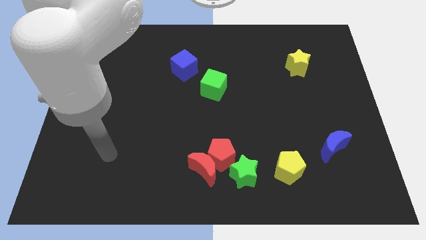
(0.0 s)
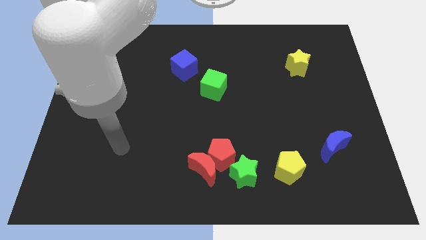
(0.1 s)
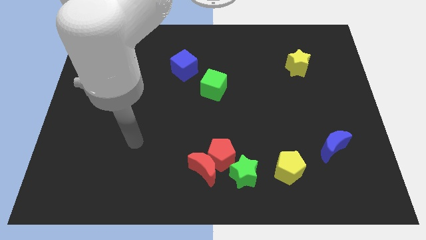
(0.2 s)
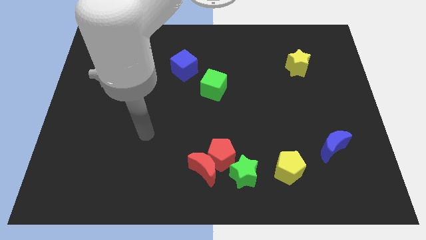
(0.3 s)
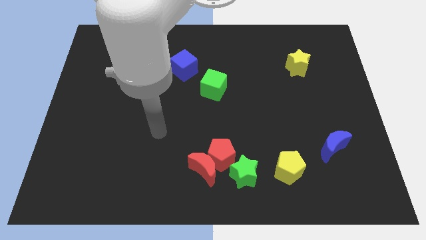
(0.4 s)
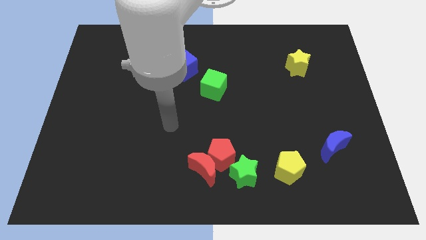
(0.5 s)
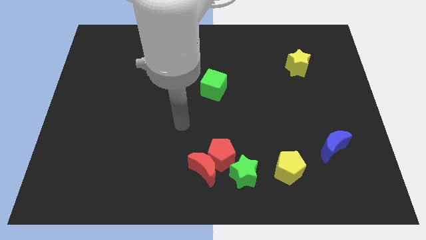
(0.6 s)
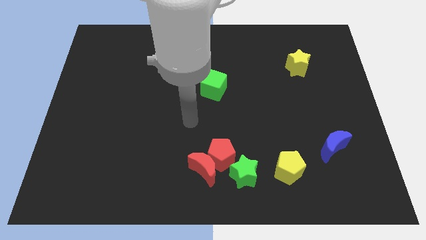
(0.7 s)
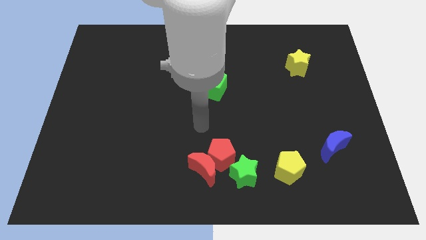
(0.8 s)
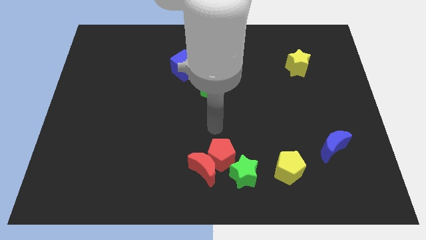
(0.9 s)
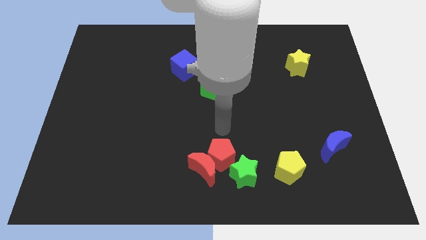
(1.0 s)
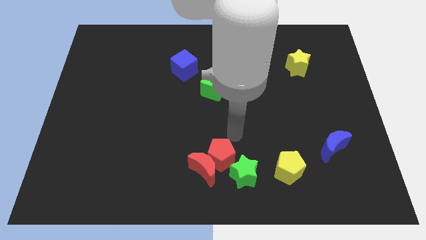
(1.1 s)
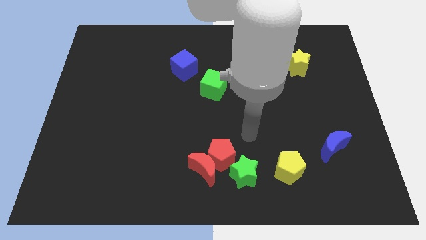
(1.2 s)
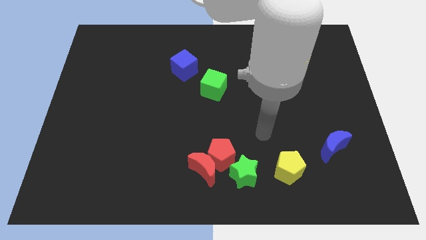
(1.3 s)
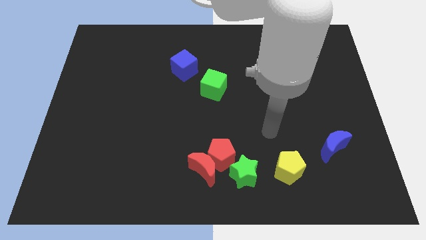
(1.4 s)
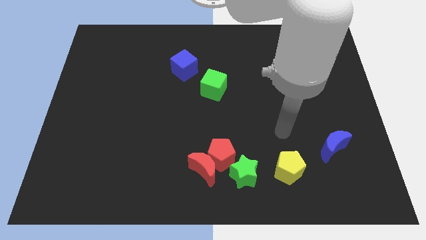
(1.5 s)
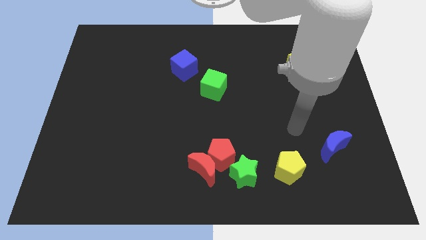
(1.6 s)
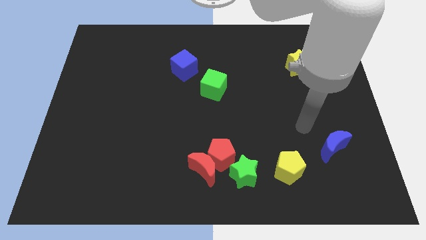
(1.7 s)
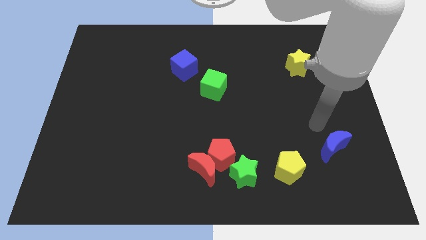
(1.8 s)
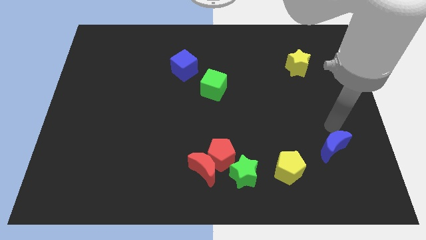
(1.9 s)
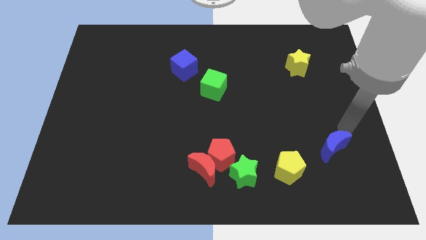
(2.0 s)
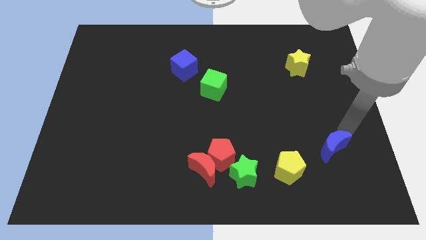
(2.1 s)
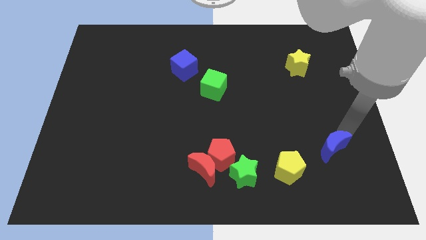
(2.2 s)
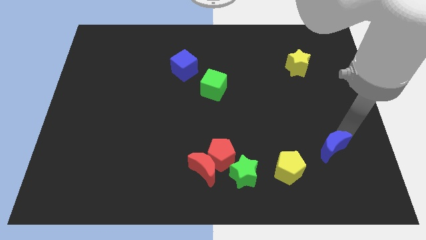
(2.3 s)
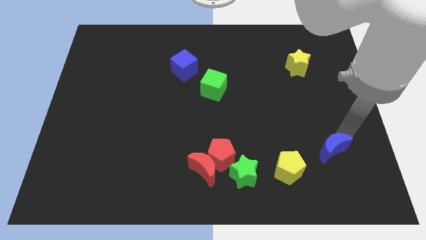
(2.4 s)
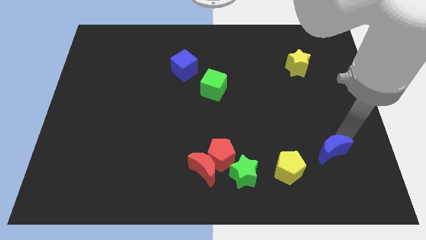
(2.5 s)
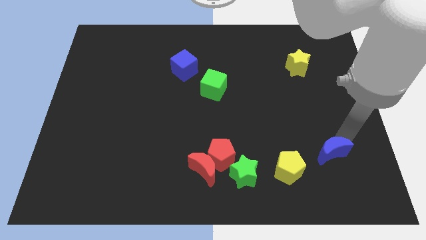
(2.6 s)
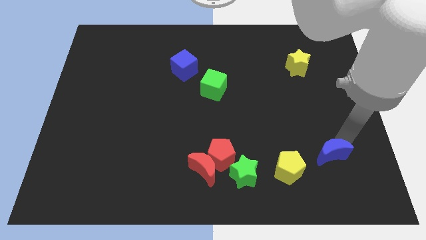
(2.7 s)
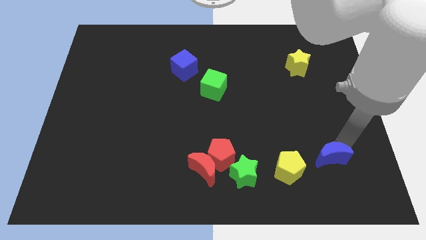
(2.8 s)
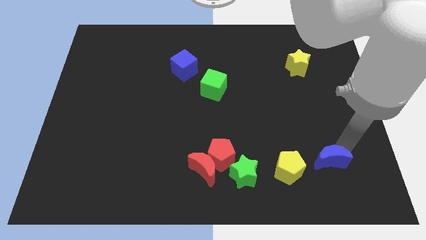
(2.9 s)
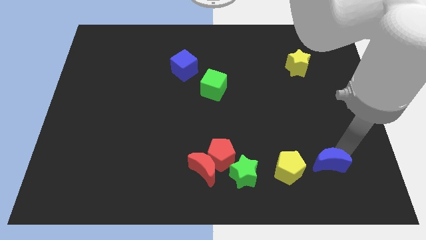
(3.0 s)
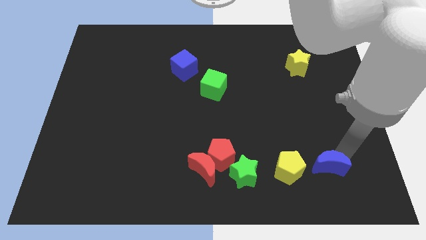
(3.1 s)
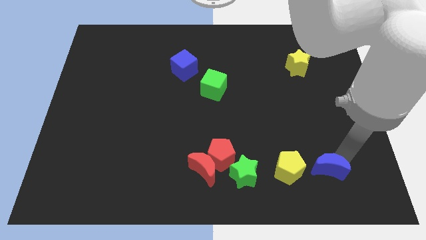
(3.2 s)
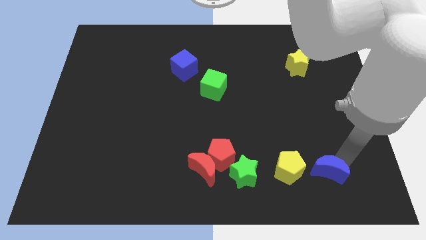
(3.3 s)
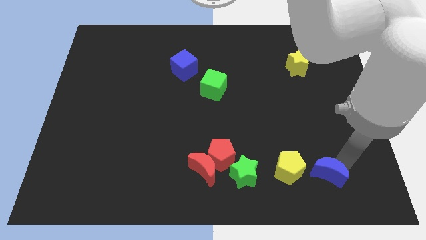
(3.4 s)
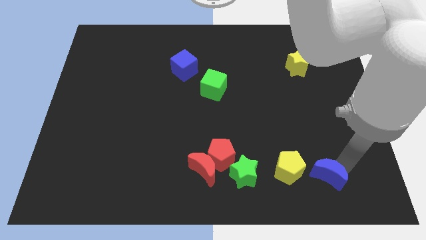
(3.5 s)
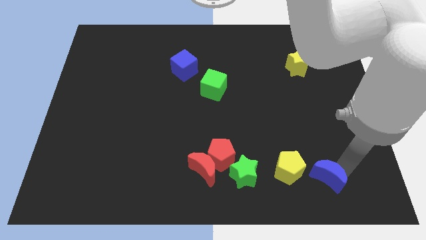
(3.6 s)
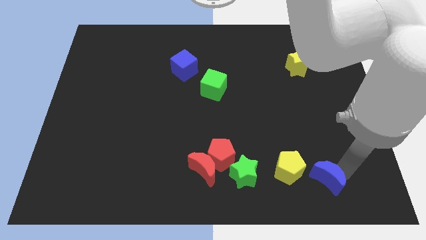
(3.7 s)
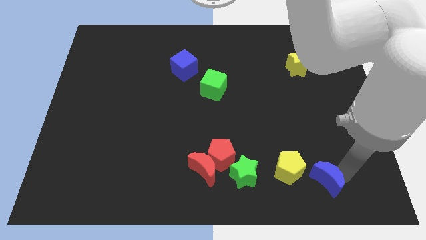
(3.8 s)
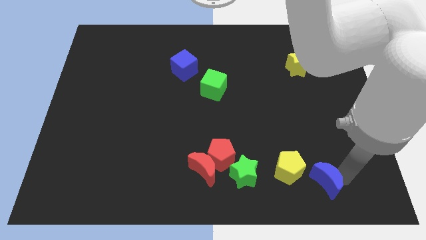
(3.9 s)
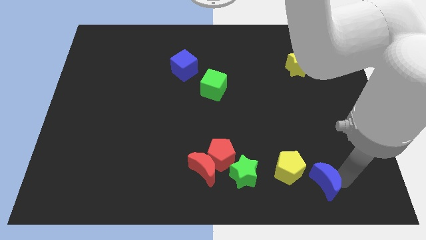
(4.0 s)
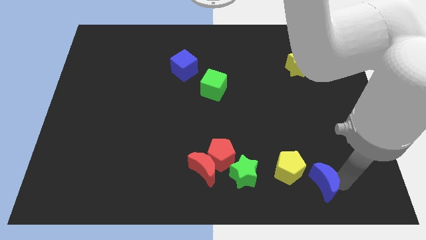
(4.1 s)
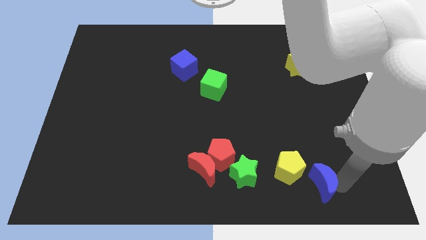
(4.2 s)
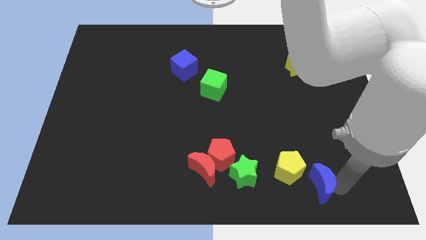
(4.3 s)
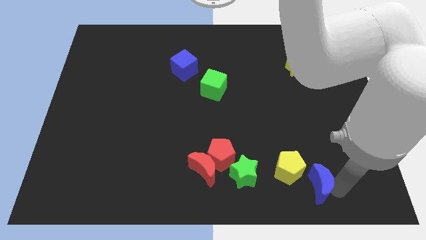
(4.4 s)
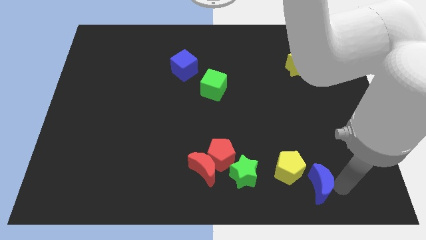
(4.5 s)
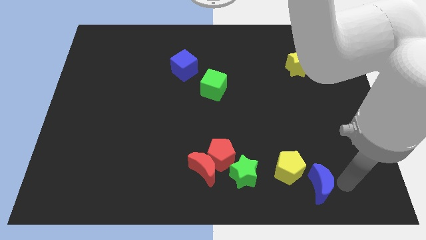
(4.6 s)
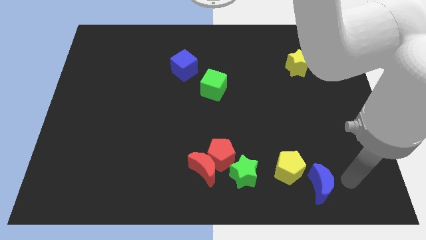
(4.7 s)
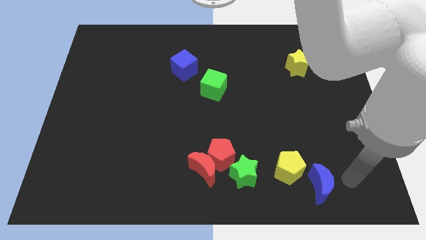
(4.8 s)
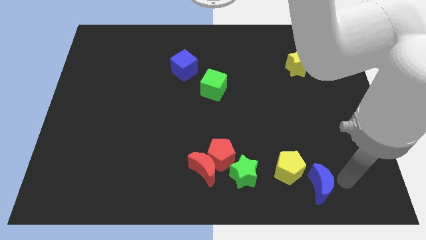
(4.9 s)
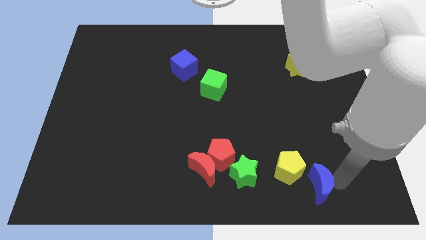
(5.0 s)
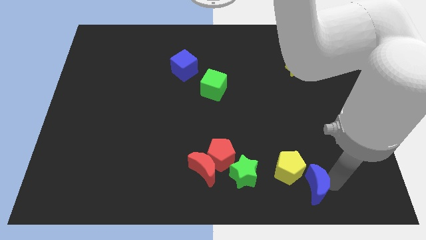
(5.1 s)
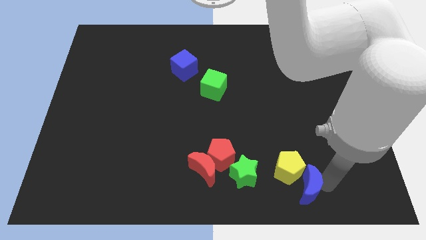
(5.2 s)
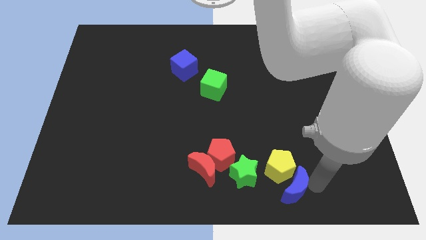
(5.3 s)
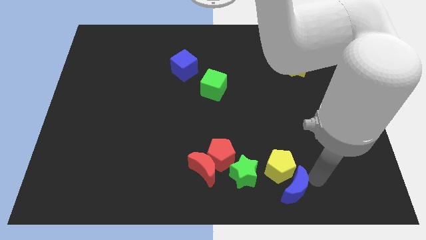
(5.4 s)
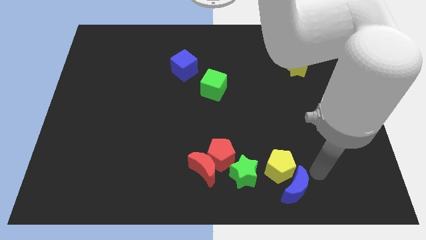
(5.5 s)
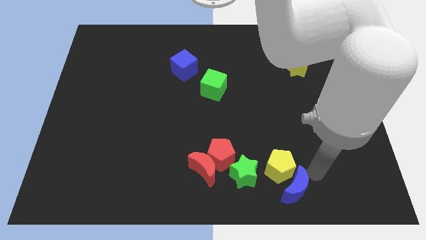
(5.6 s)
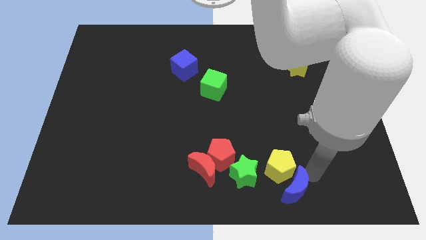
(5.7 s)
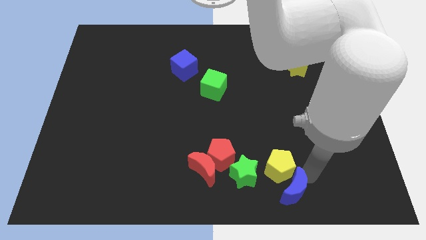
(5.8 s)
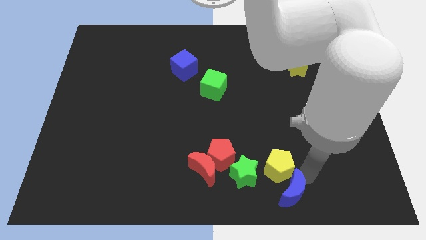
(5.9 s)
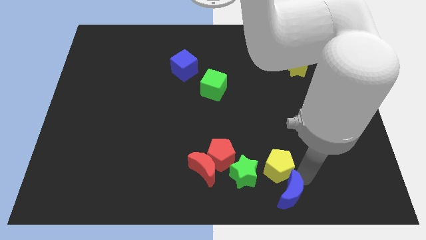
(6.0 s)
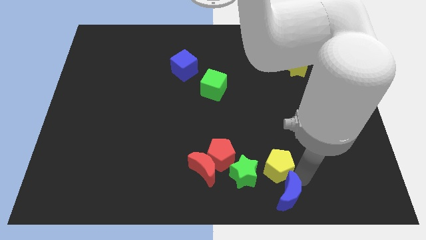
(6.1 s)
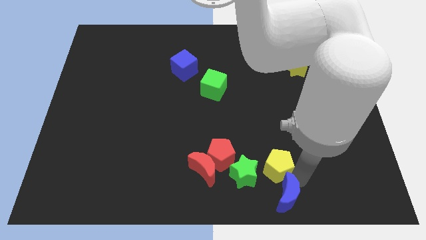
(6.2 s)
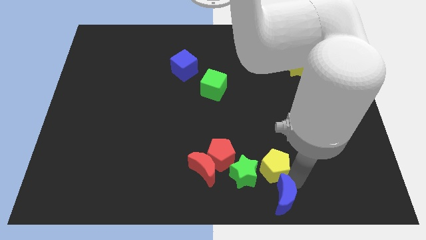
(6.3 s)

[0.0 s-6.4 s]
move the blue moon to the bottom
